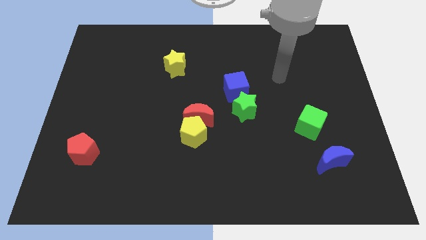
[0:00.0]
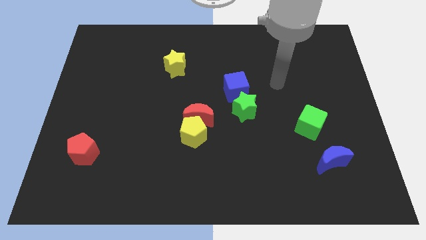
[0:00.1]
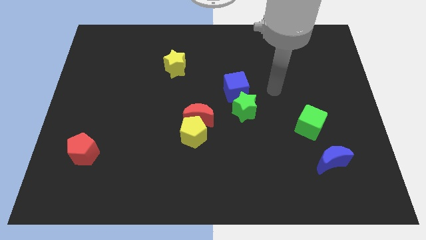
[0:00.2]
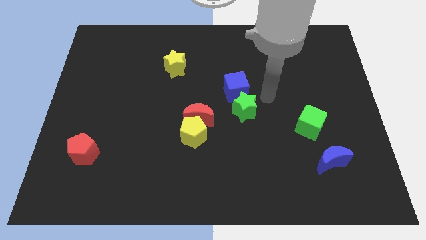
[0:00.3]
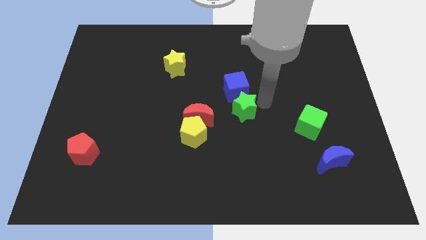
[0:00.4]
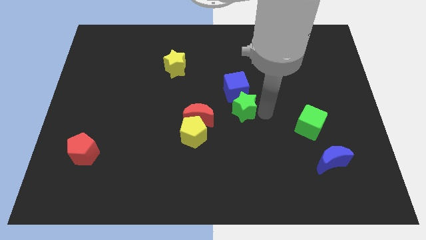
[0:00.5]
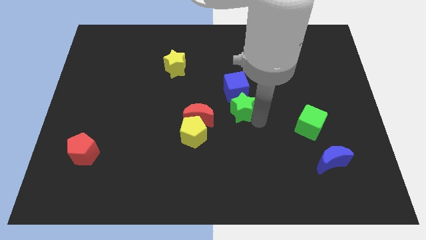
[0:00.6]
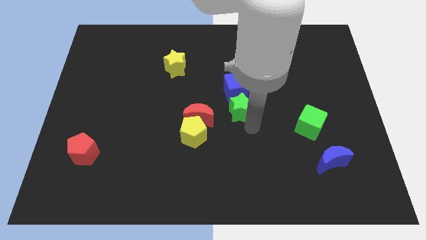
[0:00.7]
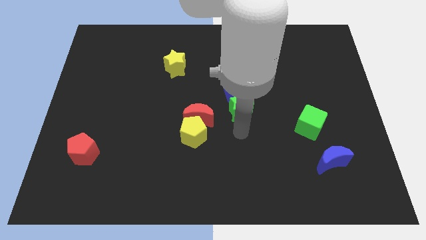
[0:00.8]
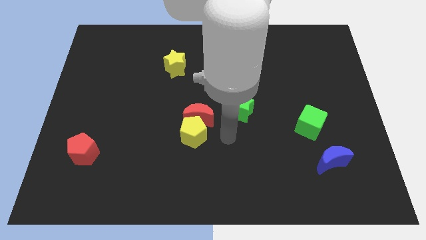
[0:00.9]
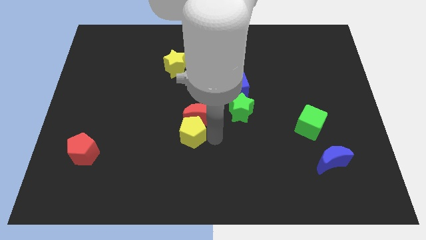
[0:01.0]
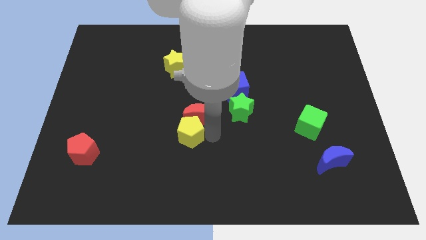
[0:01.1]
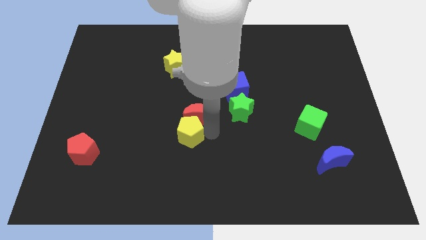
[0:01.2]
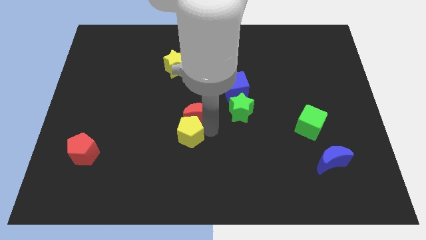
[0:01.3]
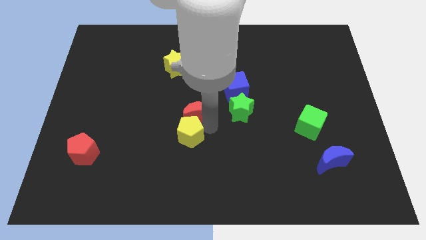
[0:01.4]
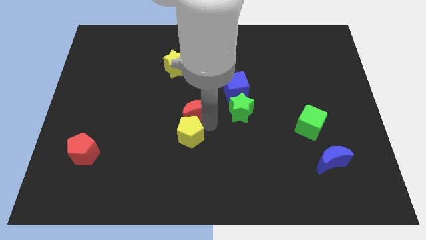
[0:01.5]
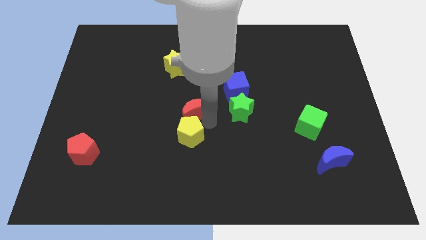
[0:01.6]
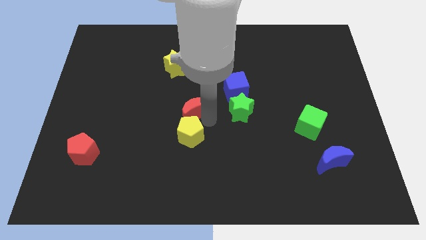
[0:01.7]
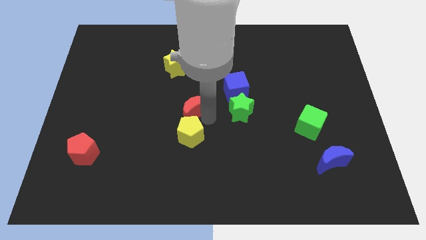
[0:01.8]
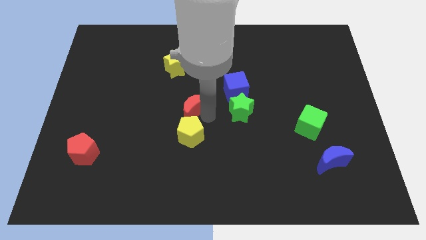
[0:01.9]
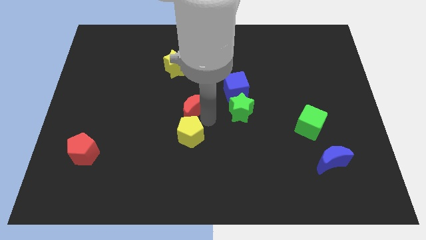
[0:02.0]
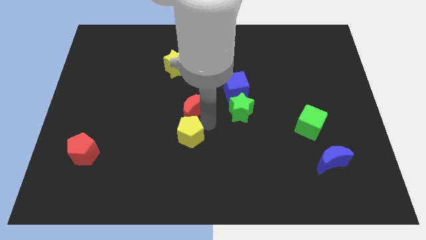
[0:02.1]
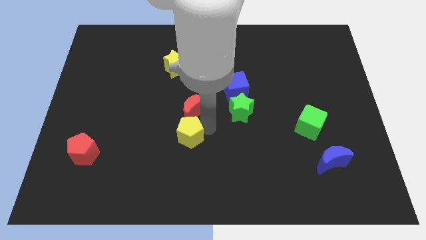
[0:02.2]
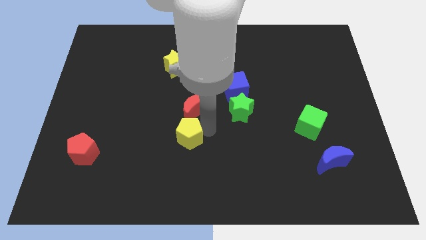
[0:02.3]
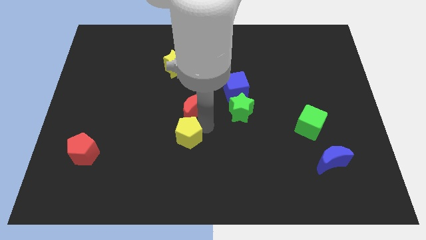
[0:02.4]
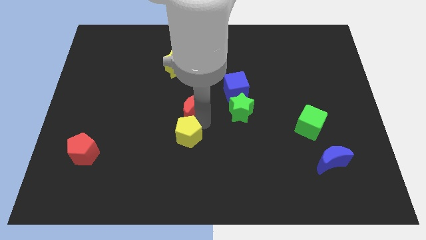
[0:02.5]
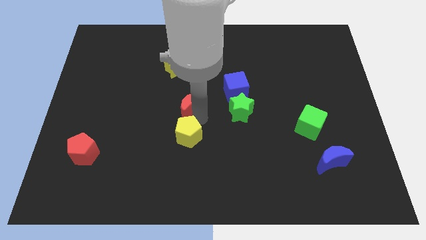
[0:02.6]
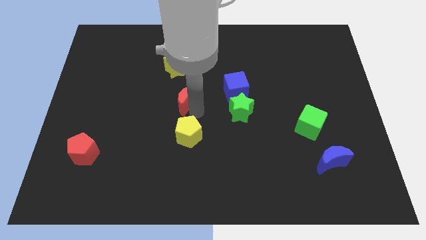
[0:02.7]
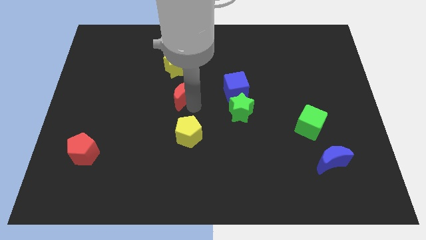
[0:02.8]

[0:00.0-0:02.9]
slightly move the red moon up and left diagonally

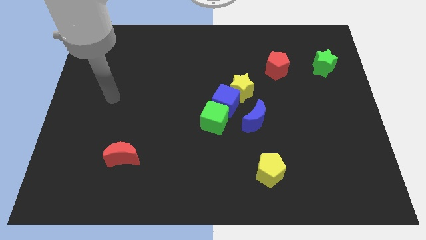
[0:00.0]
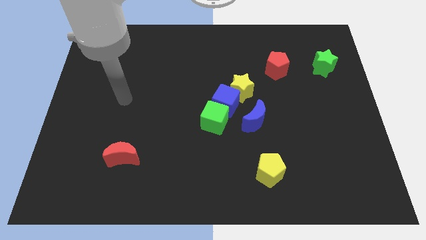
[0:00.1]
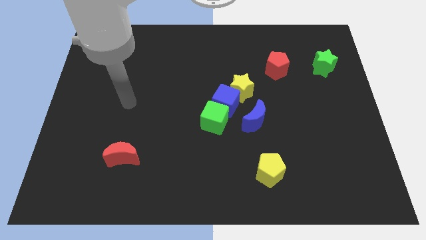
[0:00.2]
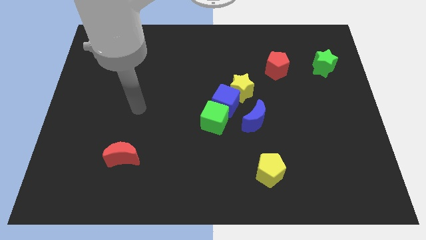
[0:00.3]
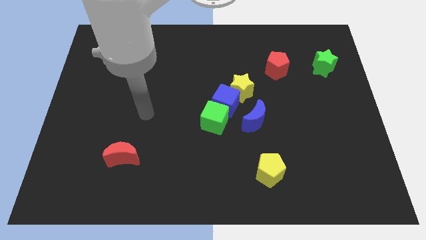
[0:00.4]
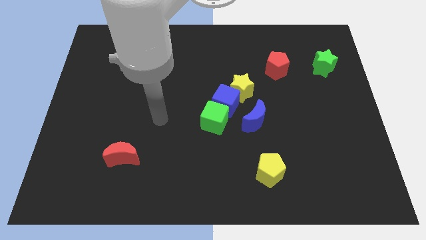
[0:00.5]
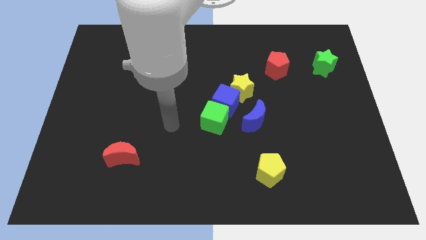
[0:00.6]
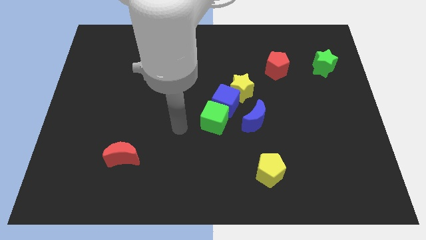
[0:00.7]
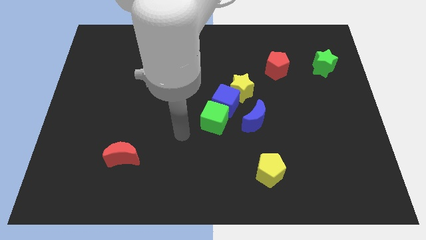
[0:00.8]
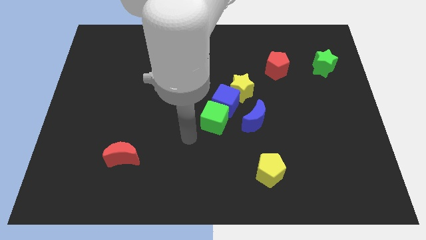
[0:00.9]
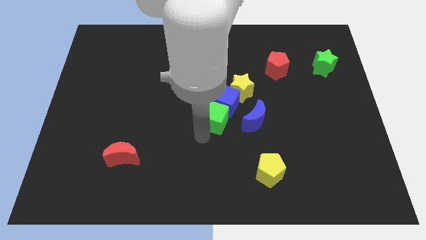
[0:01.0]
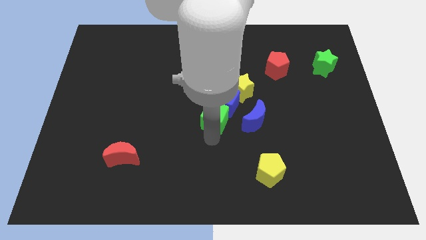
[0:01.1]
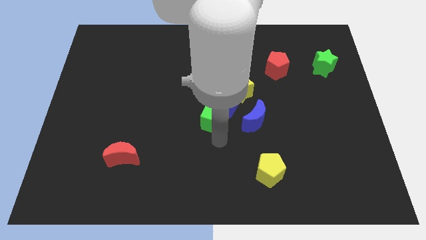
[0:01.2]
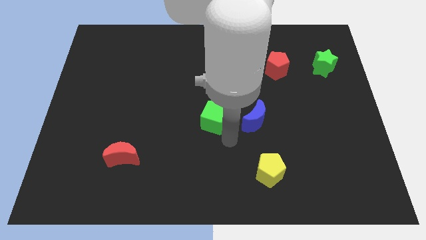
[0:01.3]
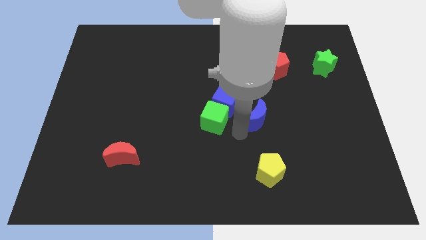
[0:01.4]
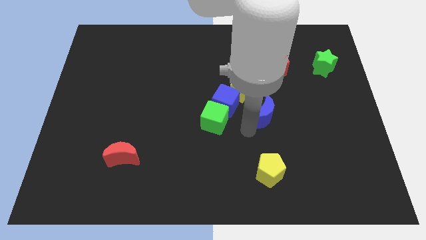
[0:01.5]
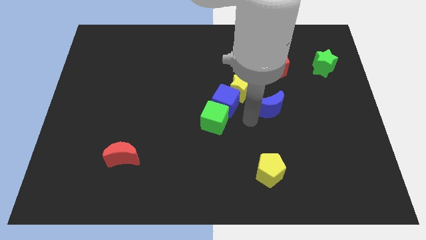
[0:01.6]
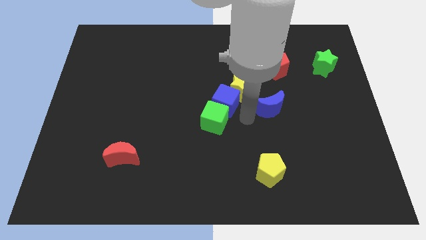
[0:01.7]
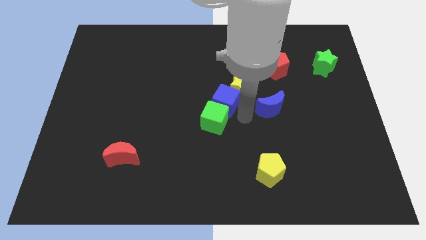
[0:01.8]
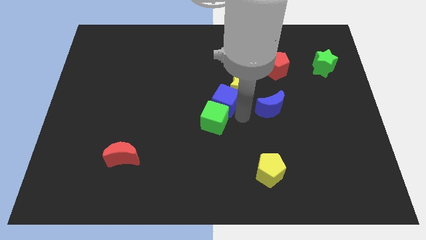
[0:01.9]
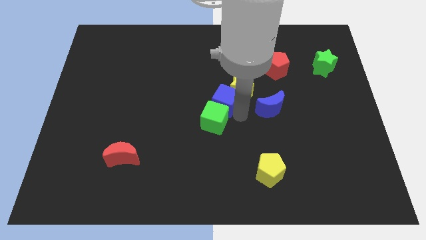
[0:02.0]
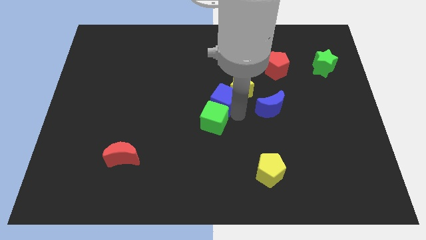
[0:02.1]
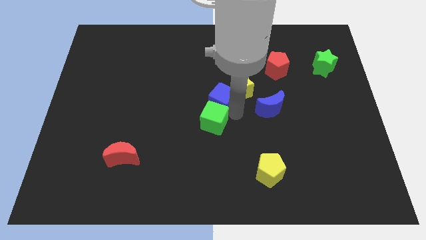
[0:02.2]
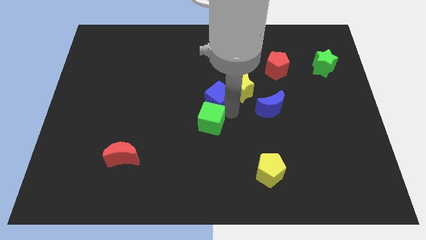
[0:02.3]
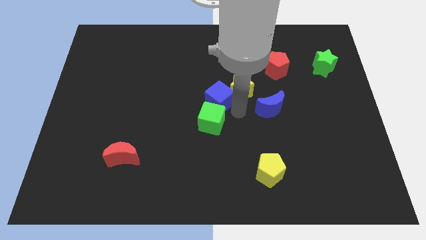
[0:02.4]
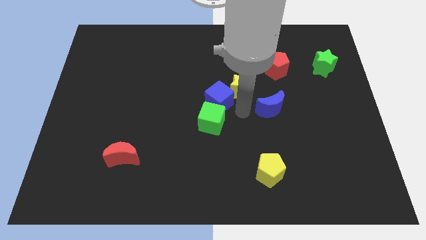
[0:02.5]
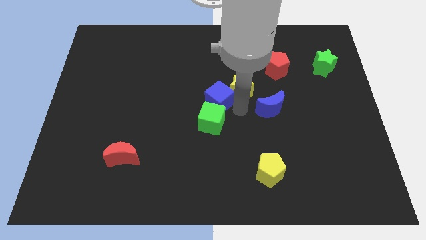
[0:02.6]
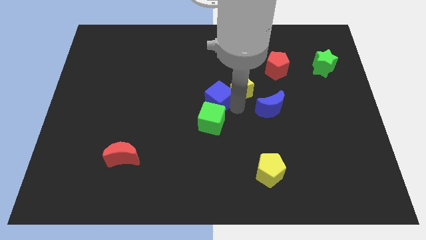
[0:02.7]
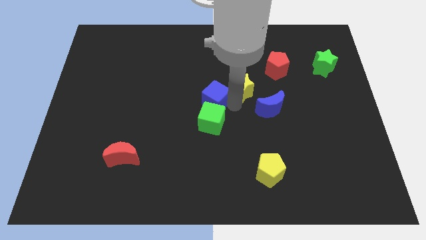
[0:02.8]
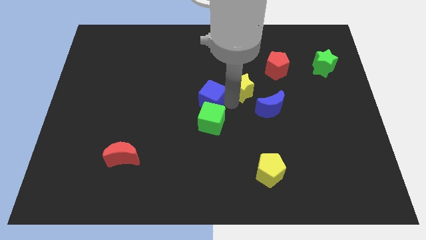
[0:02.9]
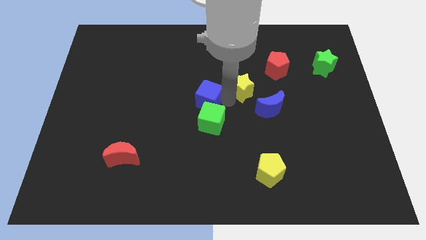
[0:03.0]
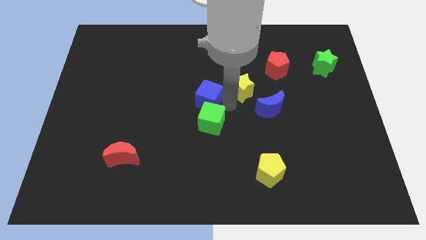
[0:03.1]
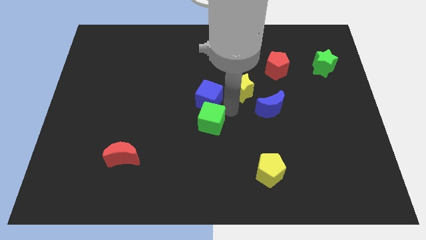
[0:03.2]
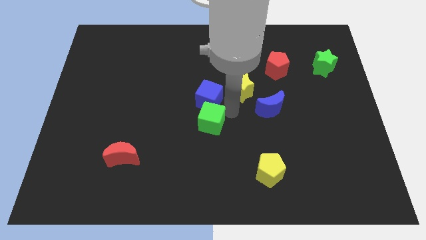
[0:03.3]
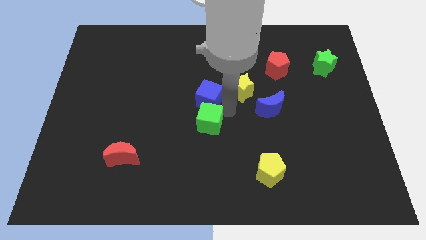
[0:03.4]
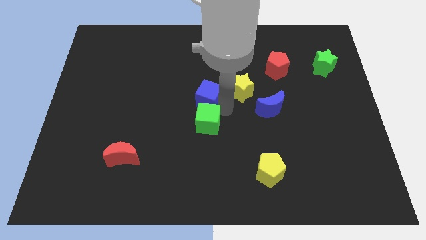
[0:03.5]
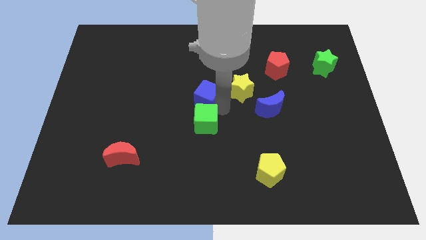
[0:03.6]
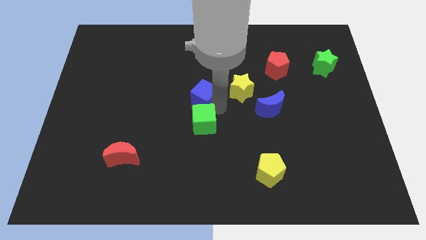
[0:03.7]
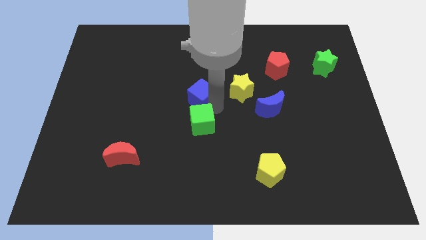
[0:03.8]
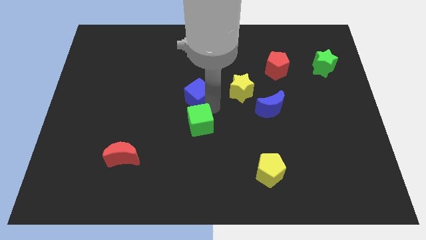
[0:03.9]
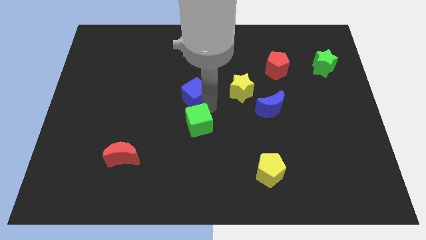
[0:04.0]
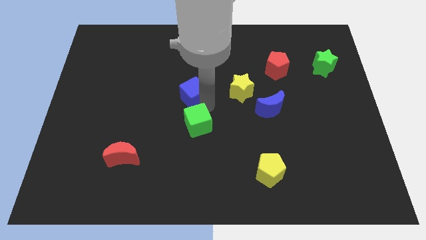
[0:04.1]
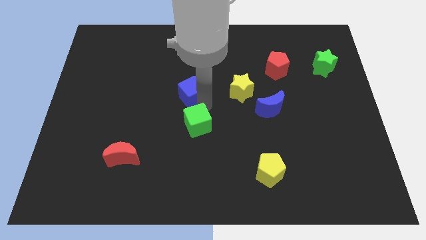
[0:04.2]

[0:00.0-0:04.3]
slightly push the blue cube up and to the left diagonally

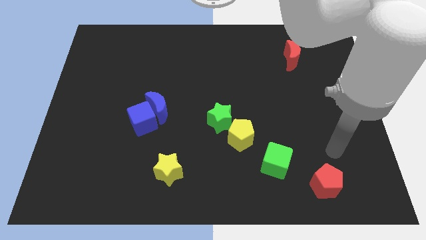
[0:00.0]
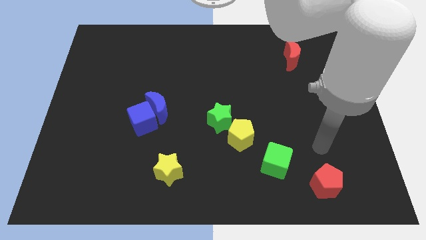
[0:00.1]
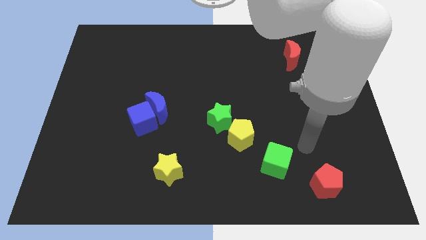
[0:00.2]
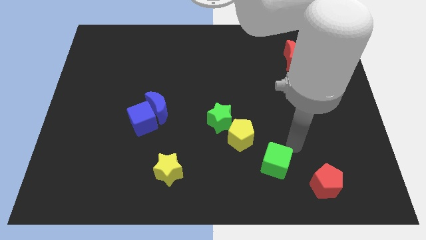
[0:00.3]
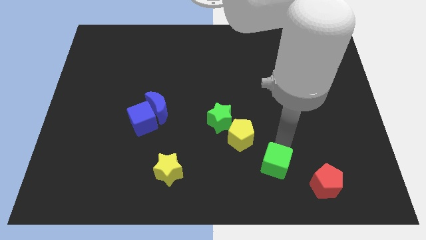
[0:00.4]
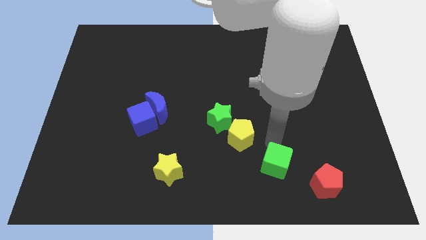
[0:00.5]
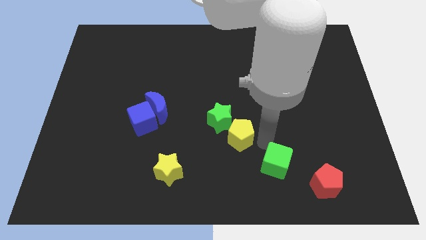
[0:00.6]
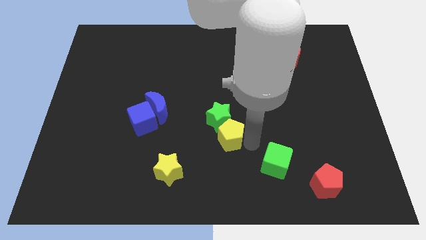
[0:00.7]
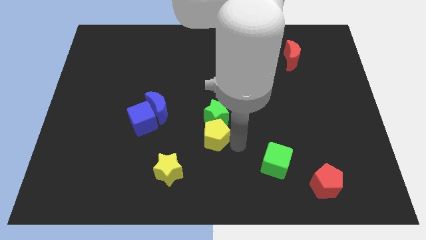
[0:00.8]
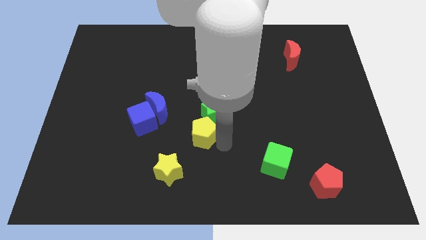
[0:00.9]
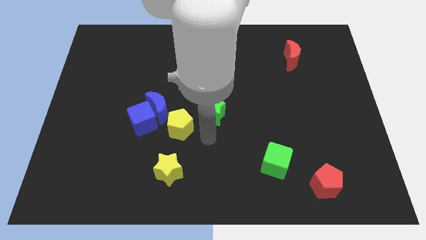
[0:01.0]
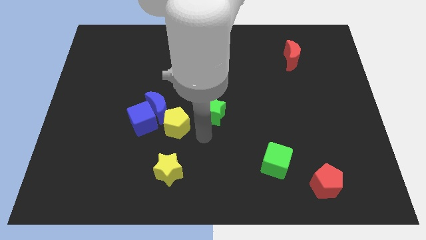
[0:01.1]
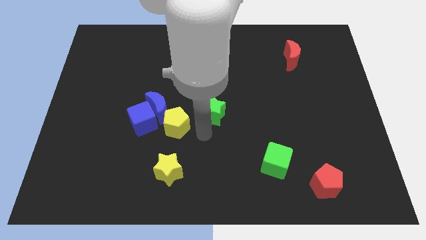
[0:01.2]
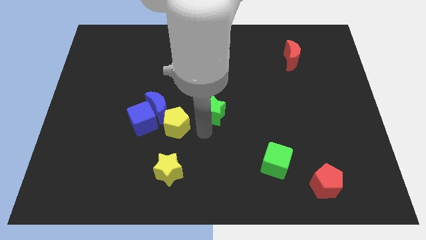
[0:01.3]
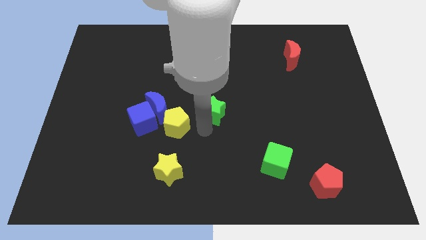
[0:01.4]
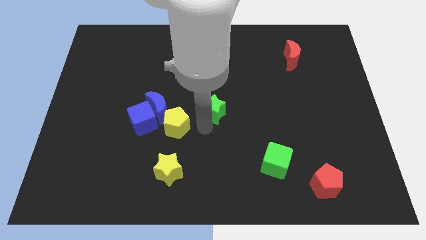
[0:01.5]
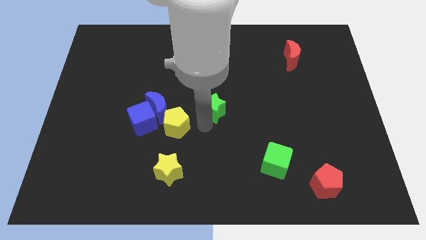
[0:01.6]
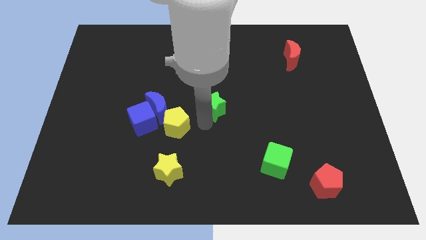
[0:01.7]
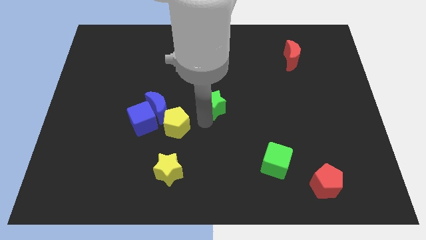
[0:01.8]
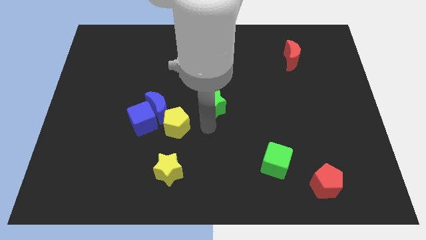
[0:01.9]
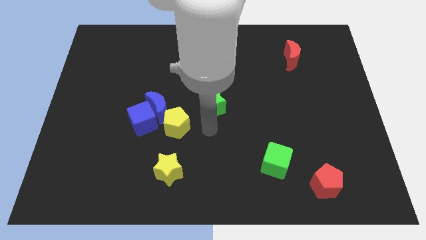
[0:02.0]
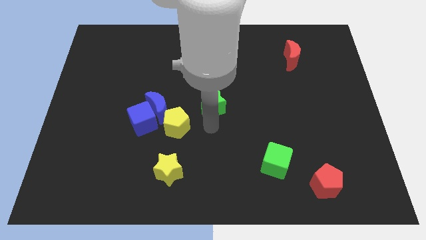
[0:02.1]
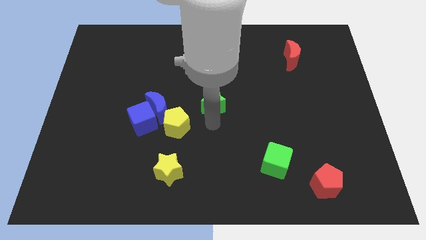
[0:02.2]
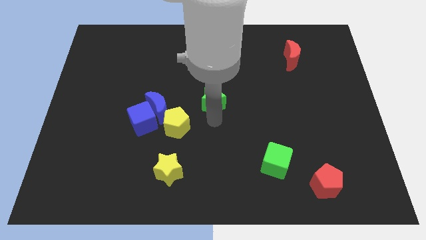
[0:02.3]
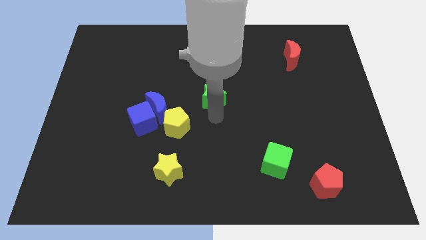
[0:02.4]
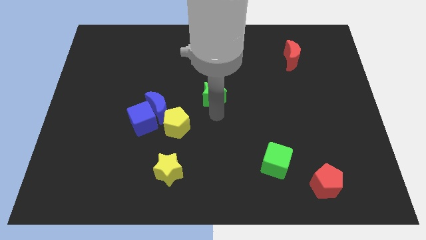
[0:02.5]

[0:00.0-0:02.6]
move the green star a little up
